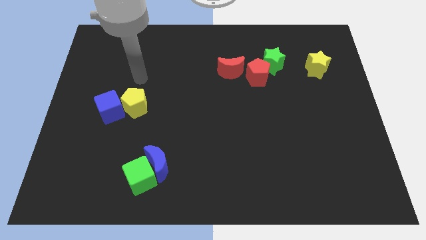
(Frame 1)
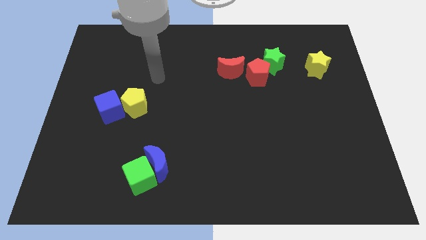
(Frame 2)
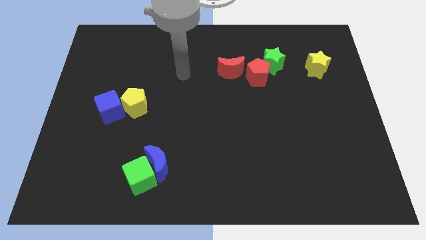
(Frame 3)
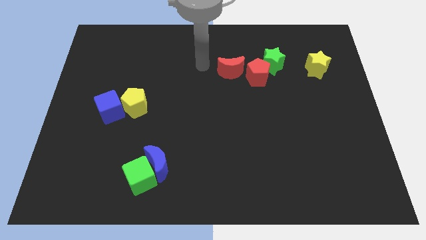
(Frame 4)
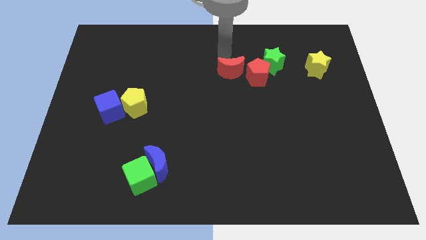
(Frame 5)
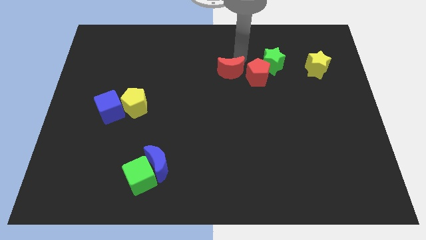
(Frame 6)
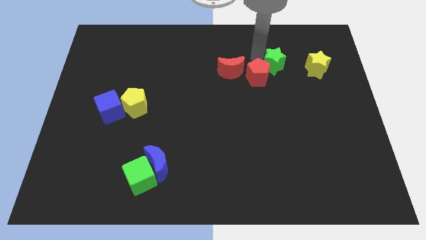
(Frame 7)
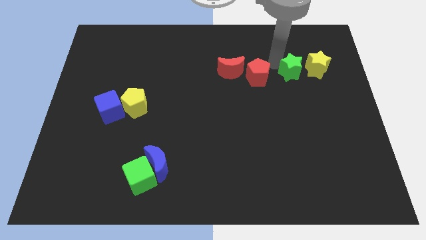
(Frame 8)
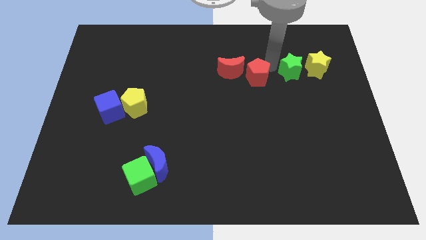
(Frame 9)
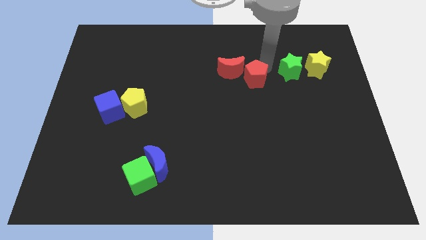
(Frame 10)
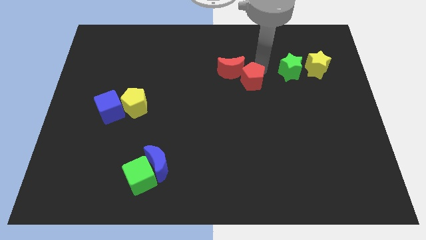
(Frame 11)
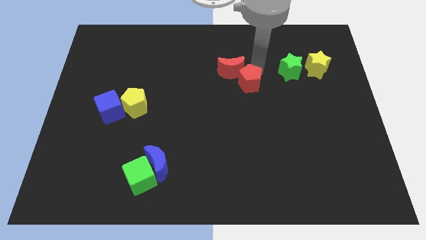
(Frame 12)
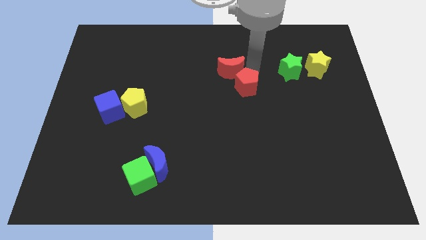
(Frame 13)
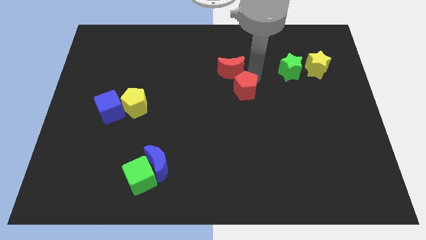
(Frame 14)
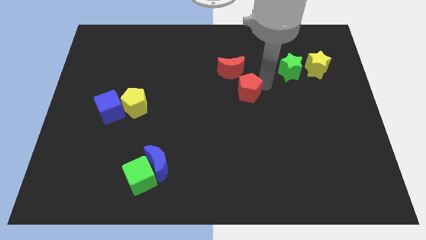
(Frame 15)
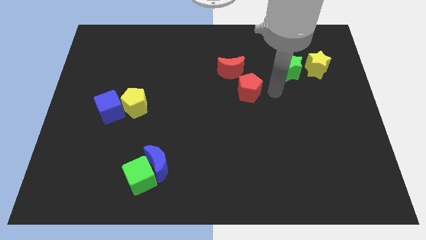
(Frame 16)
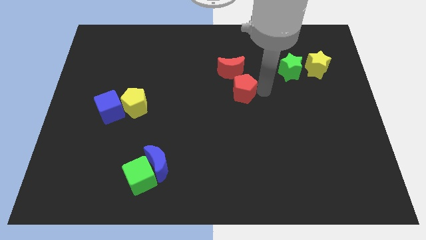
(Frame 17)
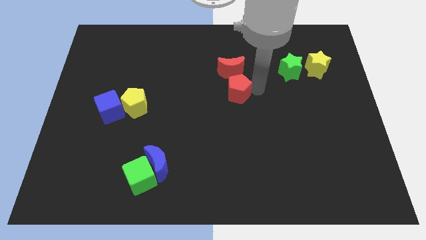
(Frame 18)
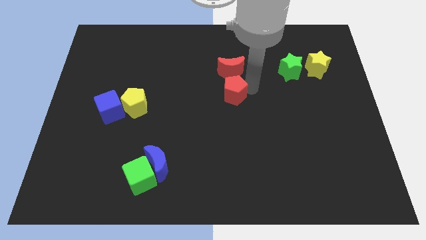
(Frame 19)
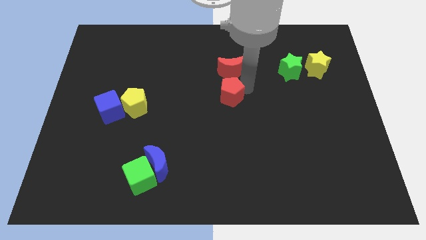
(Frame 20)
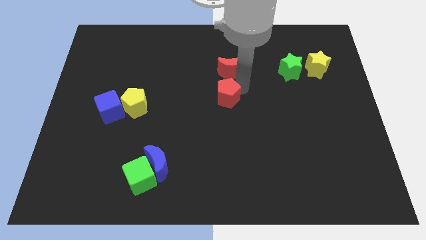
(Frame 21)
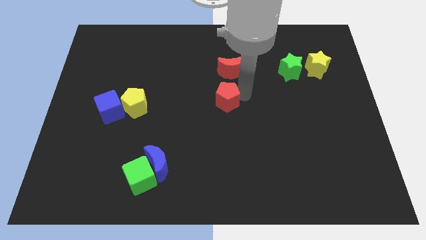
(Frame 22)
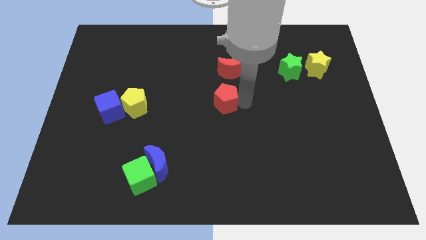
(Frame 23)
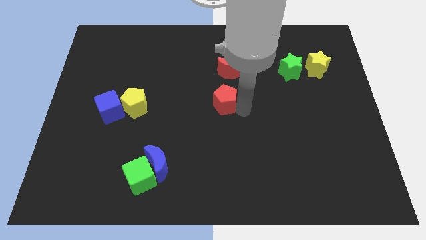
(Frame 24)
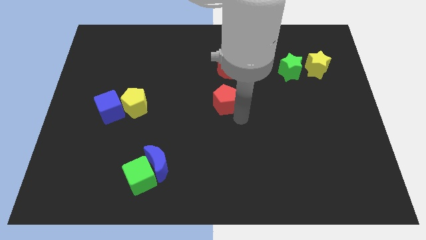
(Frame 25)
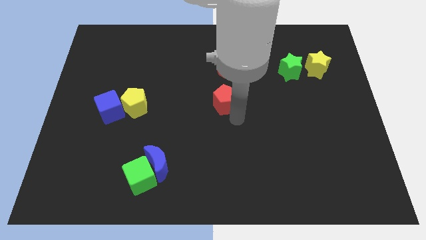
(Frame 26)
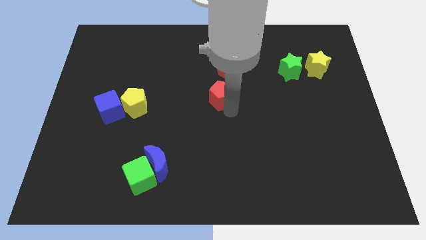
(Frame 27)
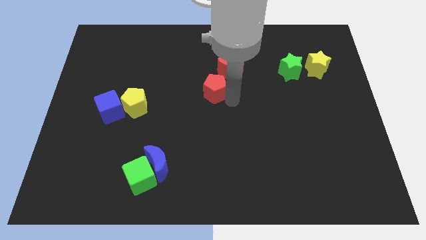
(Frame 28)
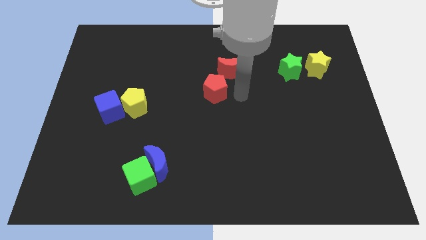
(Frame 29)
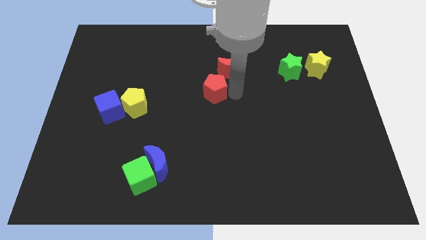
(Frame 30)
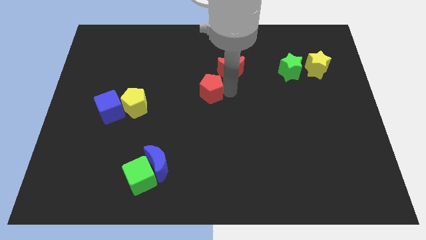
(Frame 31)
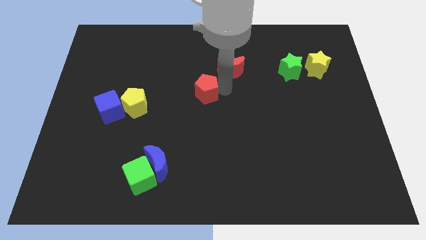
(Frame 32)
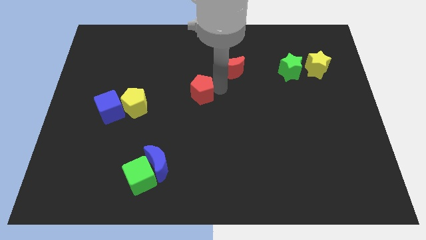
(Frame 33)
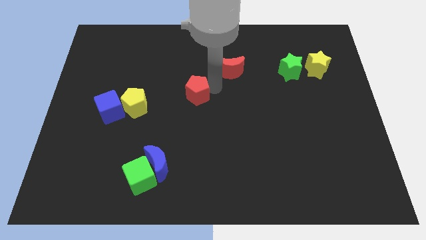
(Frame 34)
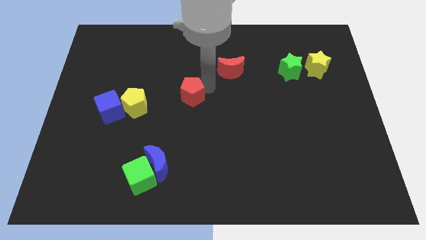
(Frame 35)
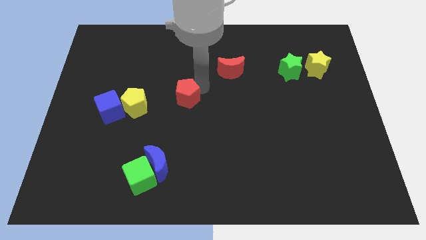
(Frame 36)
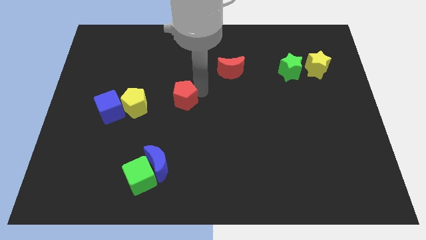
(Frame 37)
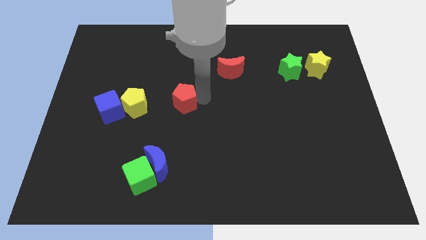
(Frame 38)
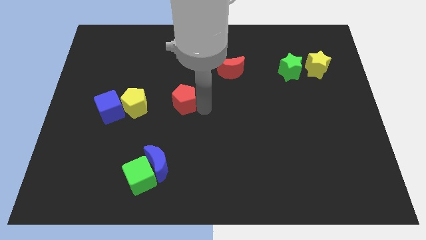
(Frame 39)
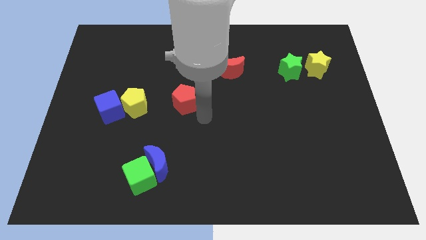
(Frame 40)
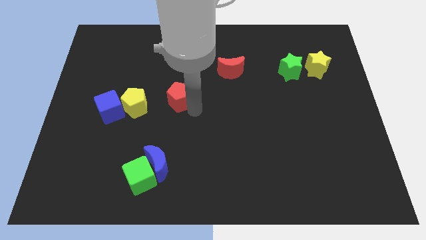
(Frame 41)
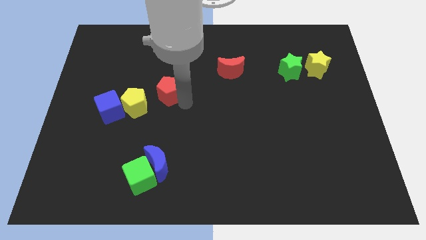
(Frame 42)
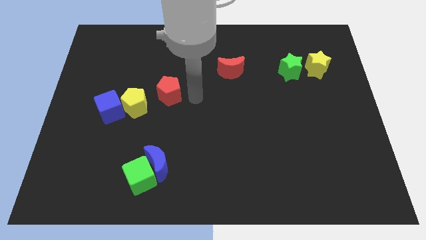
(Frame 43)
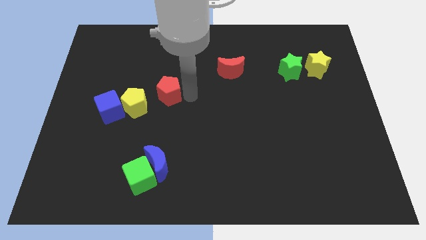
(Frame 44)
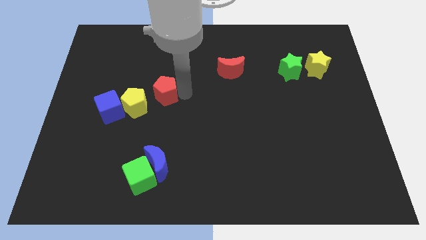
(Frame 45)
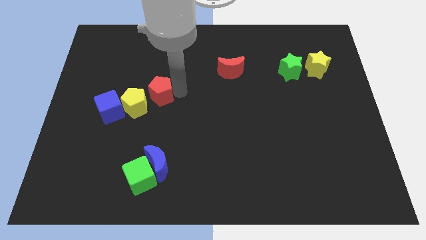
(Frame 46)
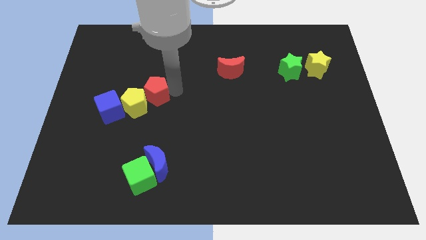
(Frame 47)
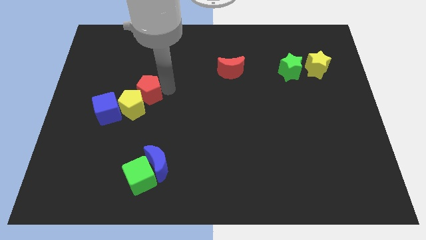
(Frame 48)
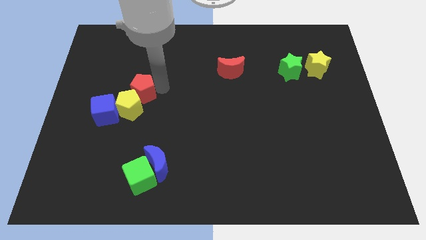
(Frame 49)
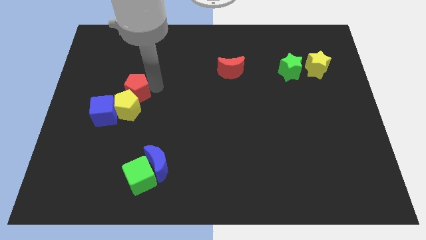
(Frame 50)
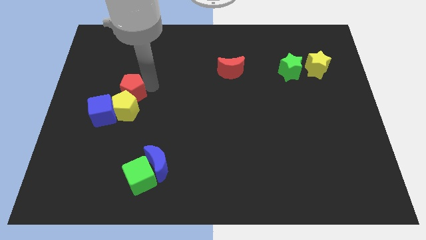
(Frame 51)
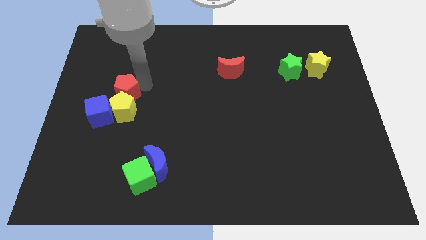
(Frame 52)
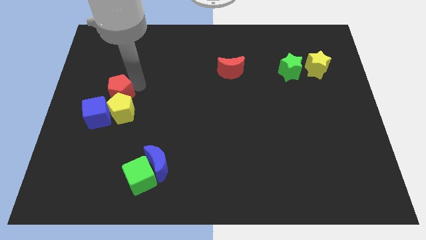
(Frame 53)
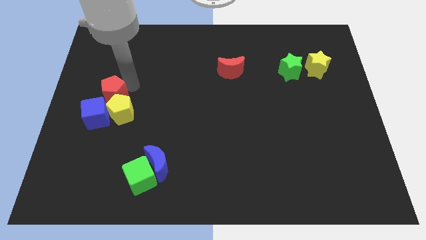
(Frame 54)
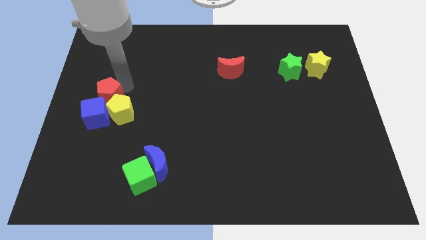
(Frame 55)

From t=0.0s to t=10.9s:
slide the red pentagon to the left side
